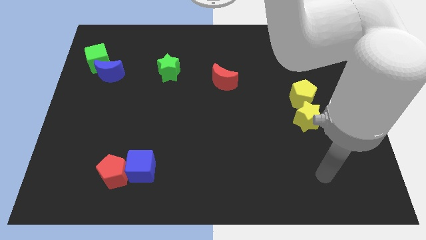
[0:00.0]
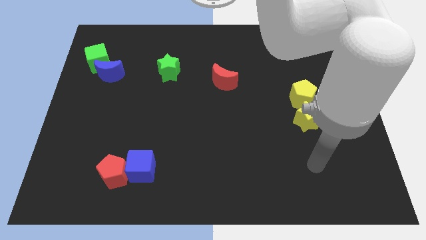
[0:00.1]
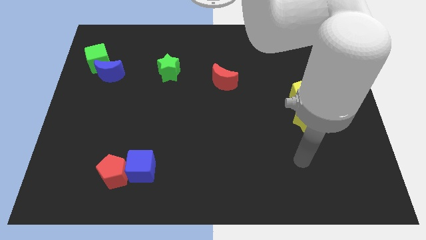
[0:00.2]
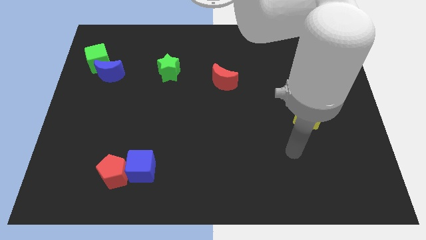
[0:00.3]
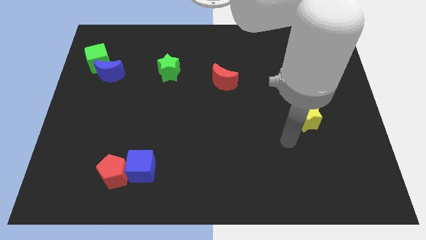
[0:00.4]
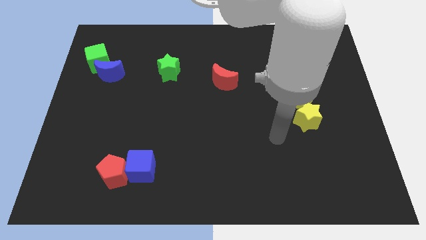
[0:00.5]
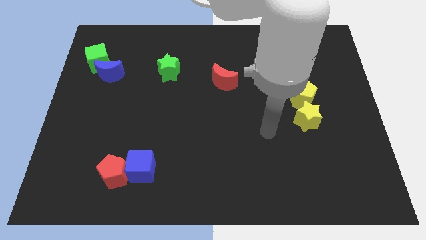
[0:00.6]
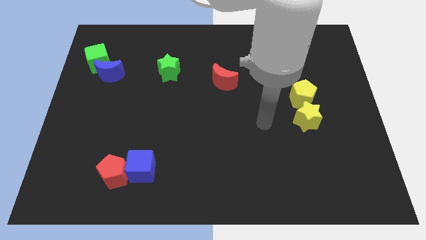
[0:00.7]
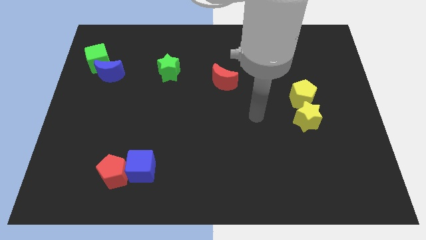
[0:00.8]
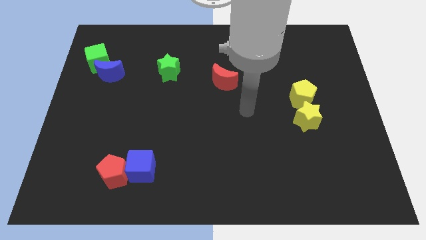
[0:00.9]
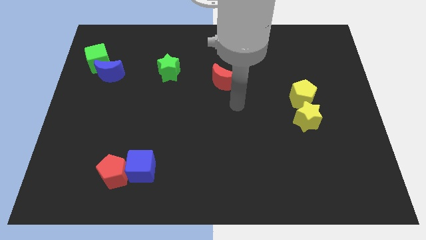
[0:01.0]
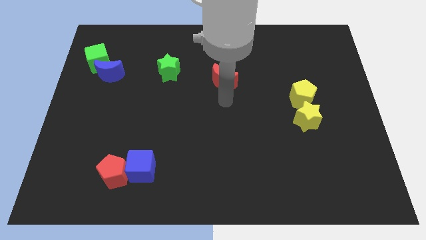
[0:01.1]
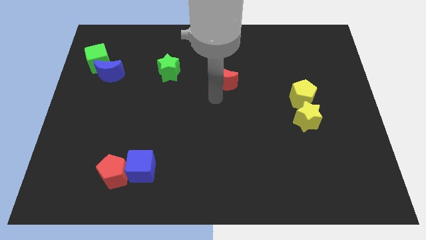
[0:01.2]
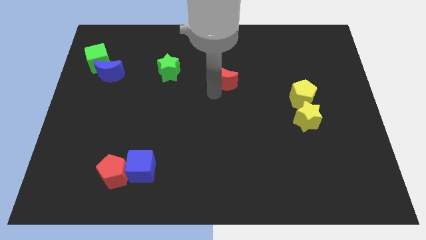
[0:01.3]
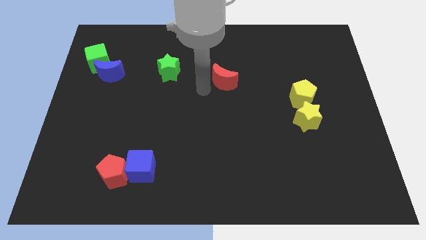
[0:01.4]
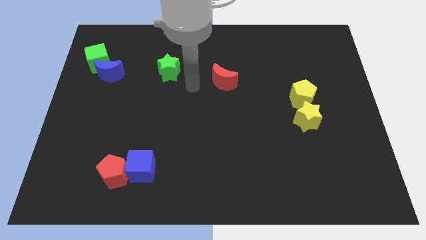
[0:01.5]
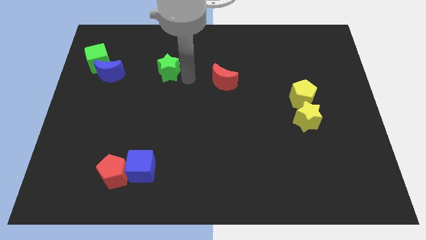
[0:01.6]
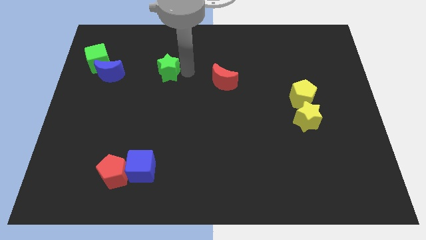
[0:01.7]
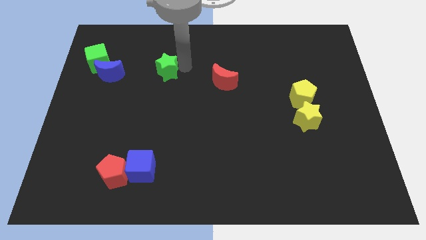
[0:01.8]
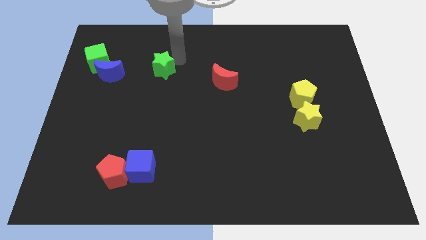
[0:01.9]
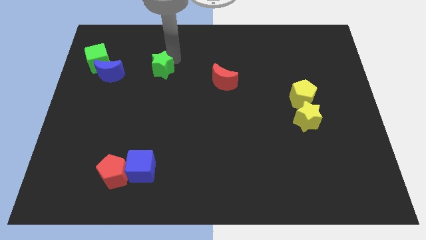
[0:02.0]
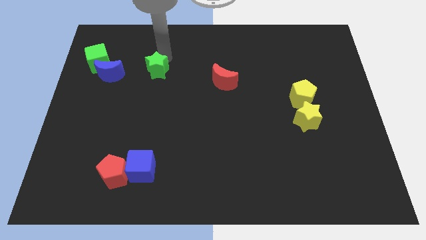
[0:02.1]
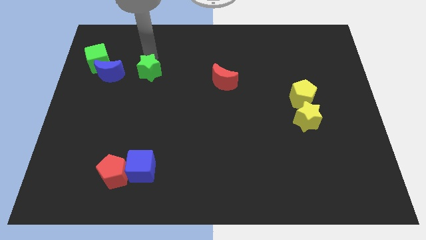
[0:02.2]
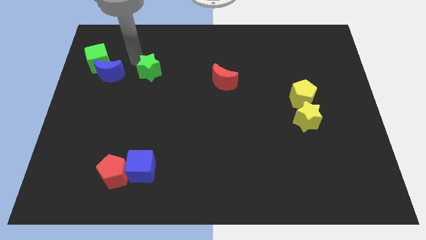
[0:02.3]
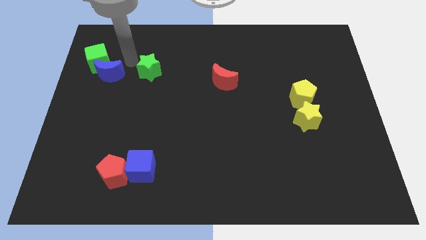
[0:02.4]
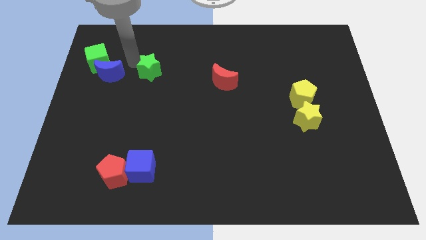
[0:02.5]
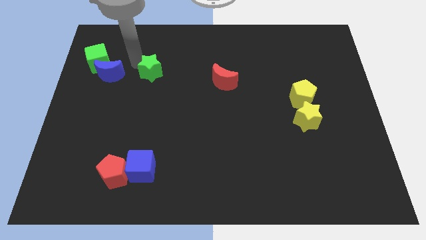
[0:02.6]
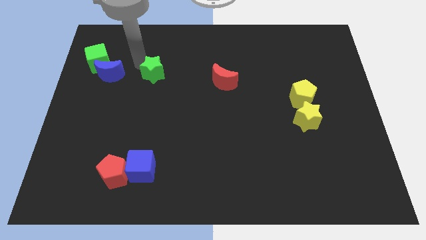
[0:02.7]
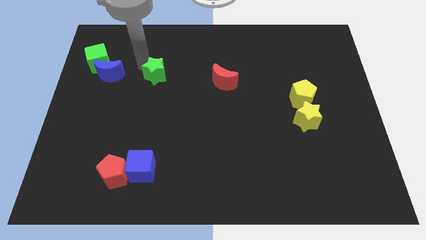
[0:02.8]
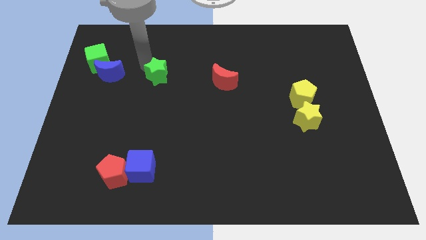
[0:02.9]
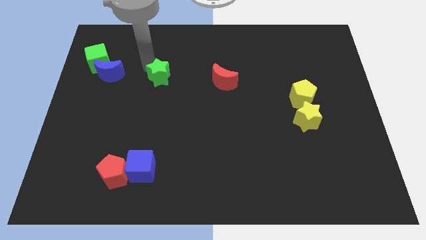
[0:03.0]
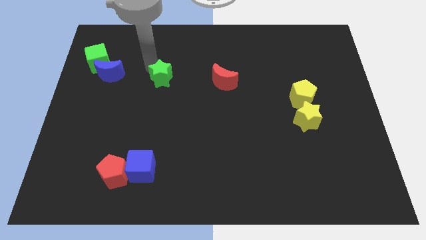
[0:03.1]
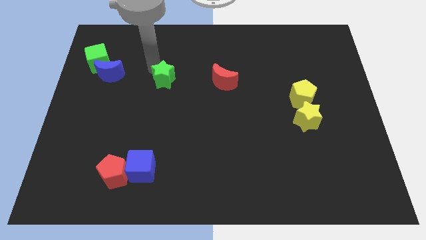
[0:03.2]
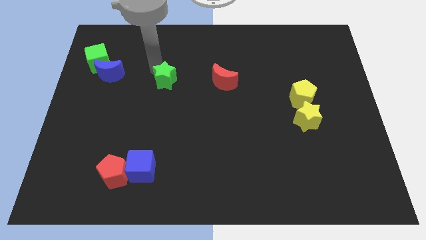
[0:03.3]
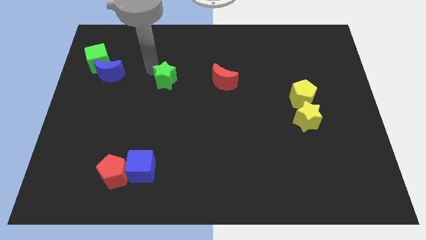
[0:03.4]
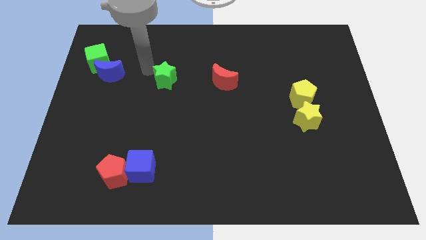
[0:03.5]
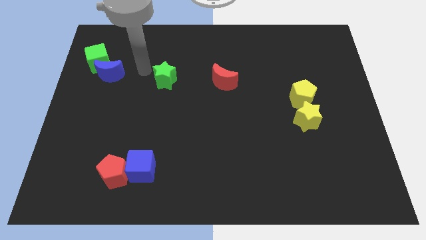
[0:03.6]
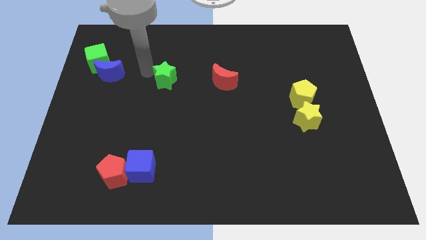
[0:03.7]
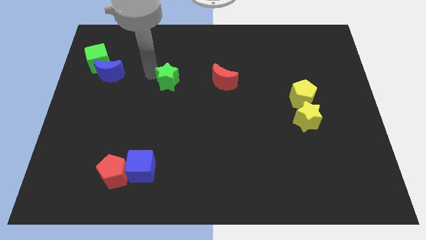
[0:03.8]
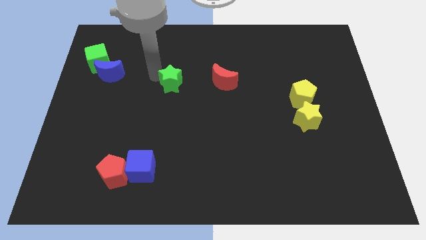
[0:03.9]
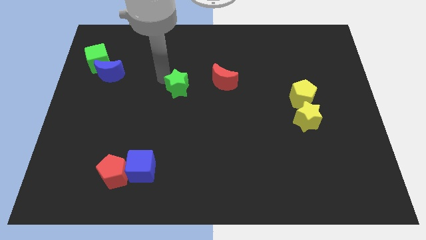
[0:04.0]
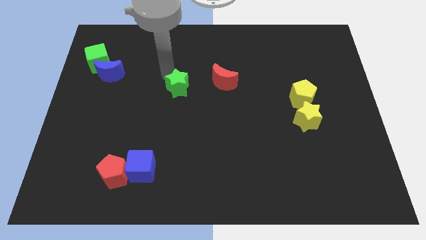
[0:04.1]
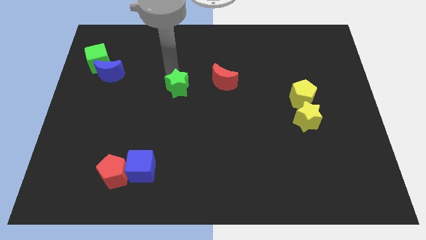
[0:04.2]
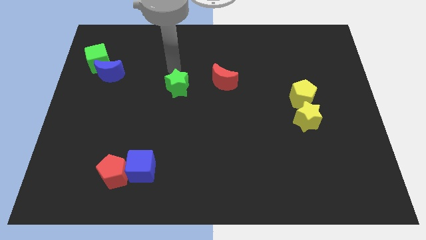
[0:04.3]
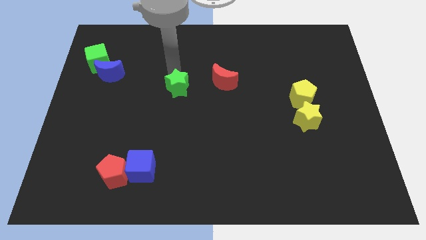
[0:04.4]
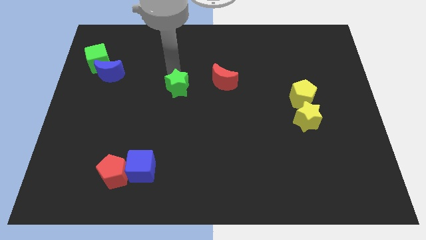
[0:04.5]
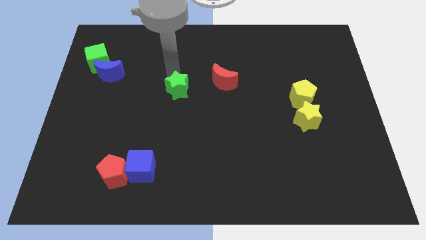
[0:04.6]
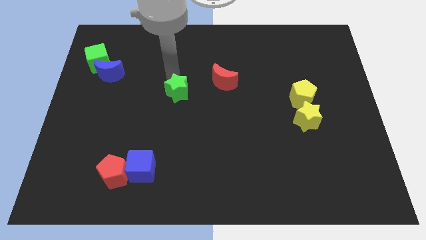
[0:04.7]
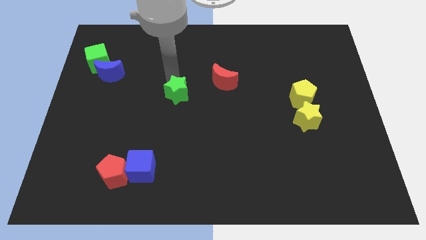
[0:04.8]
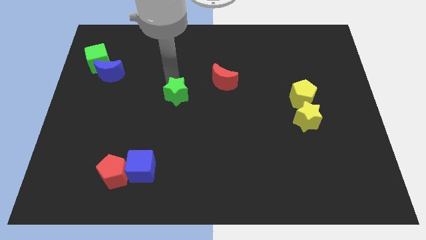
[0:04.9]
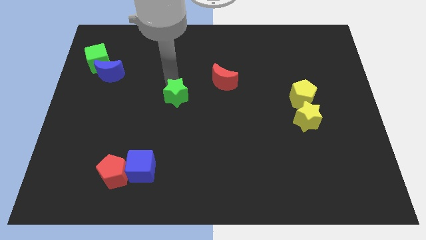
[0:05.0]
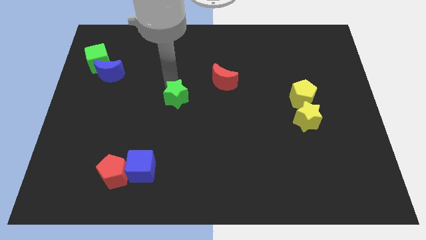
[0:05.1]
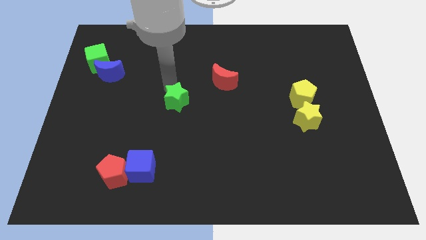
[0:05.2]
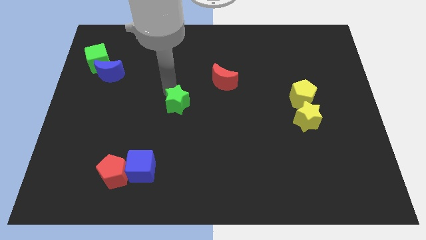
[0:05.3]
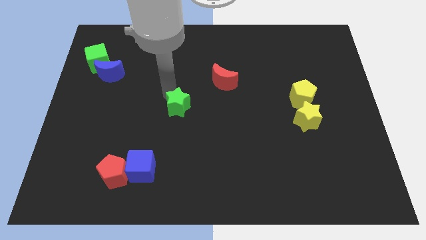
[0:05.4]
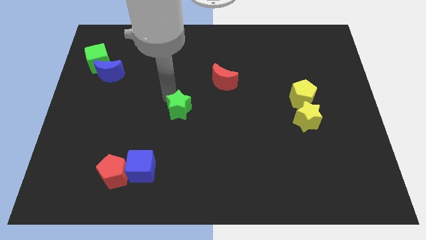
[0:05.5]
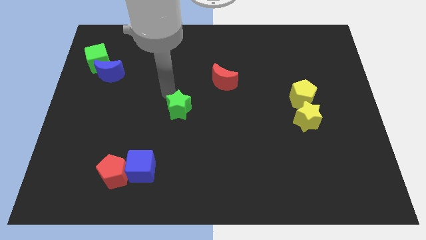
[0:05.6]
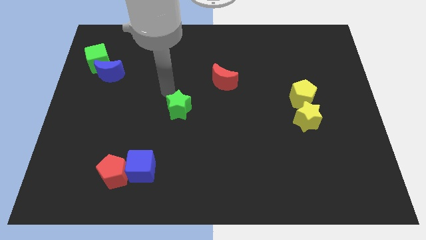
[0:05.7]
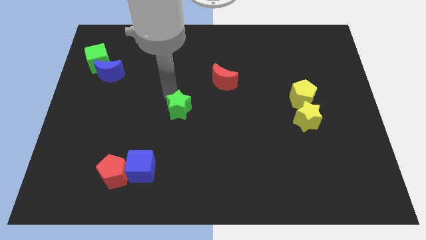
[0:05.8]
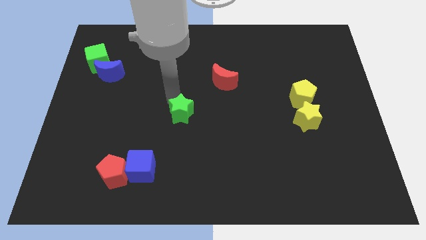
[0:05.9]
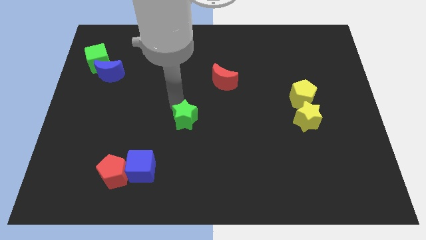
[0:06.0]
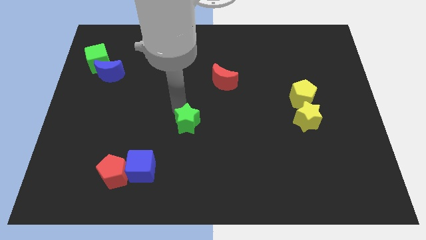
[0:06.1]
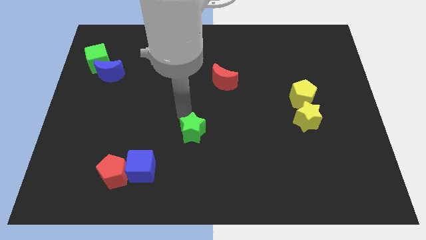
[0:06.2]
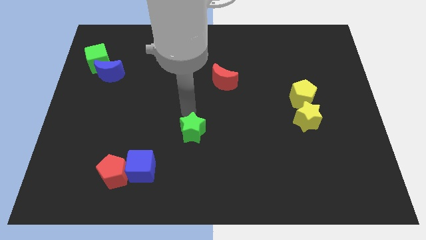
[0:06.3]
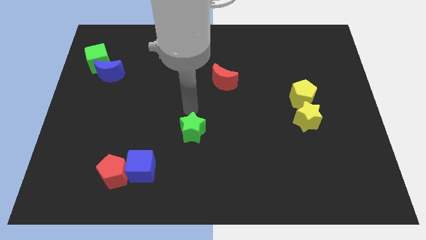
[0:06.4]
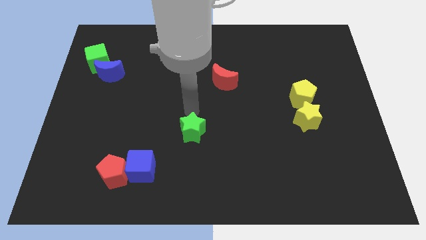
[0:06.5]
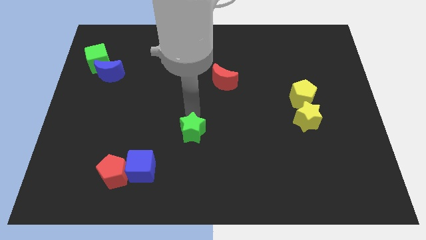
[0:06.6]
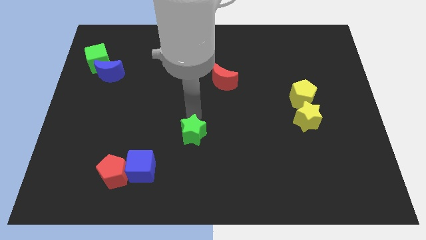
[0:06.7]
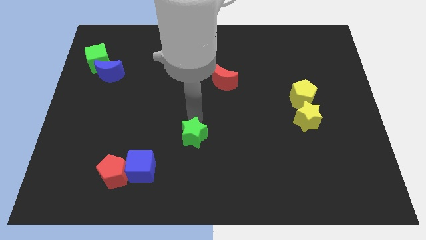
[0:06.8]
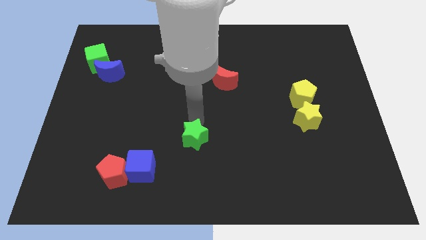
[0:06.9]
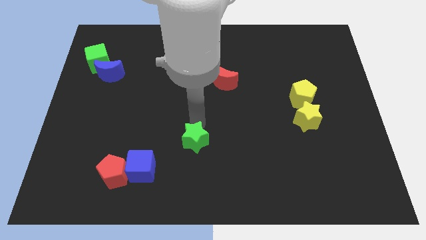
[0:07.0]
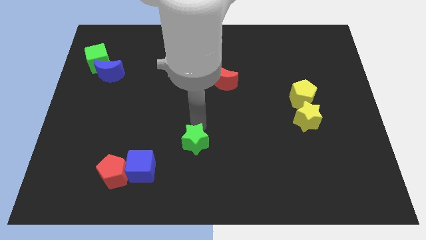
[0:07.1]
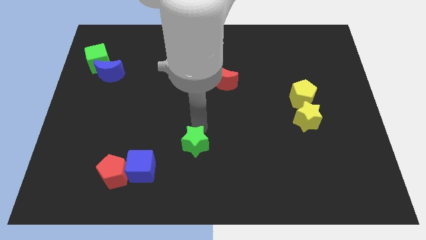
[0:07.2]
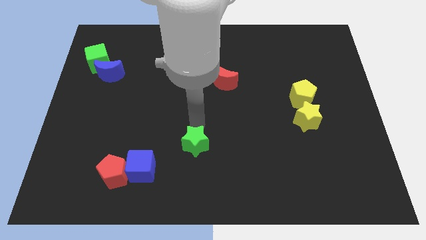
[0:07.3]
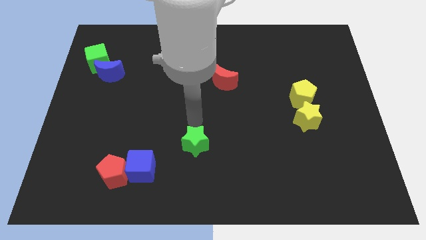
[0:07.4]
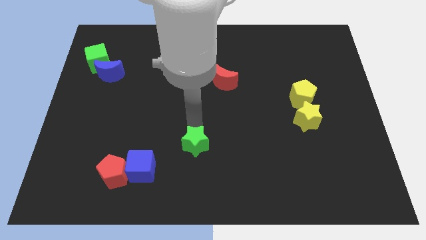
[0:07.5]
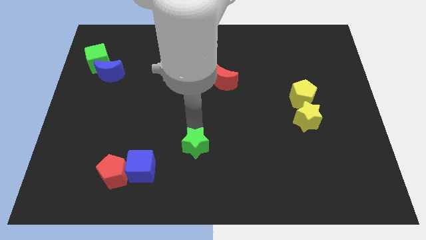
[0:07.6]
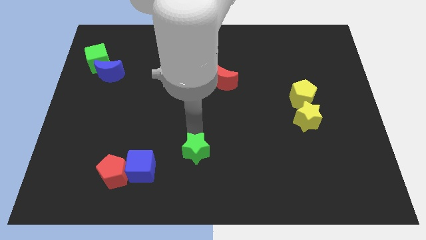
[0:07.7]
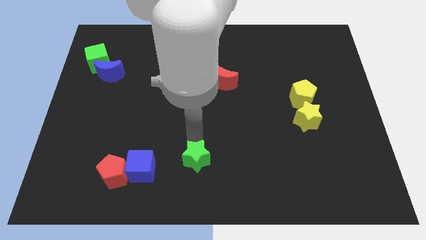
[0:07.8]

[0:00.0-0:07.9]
move the green star to the bottom

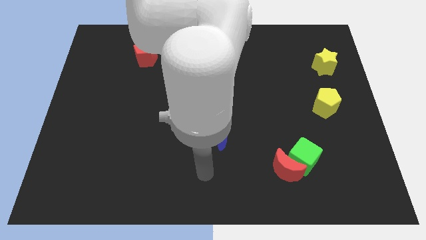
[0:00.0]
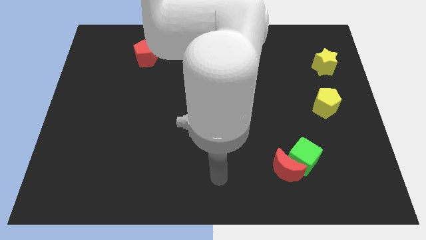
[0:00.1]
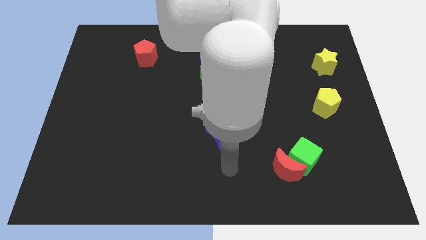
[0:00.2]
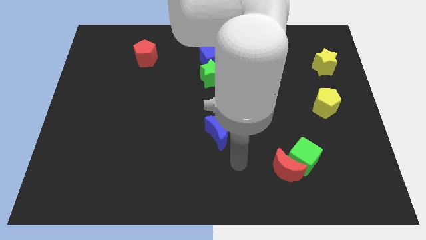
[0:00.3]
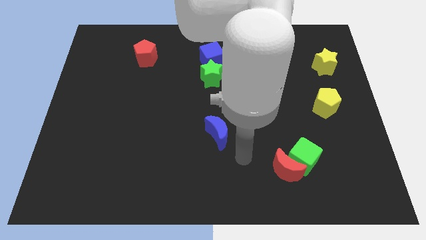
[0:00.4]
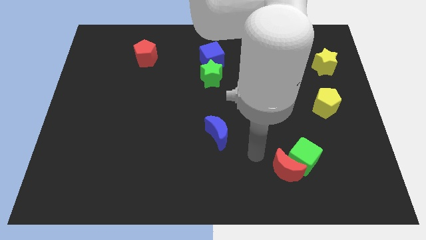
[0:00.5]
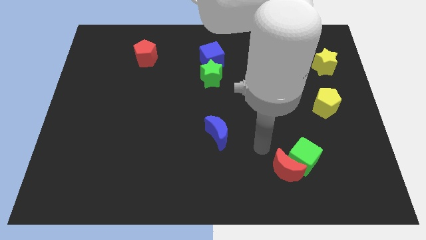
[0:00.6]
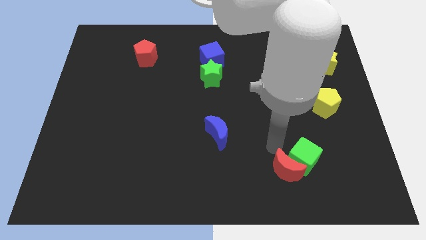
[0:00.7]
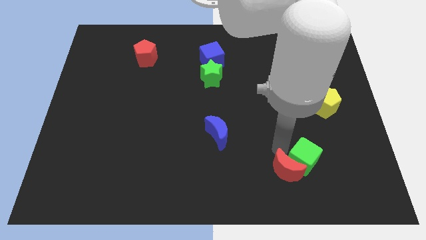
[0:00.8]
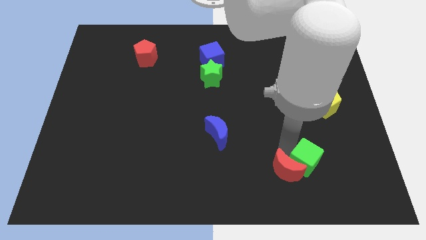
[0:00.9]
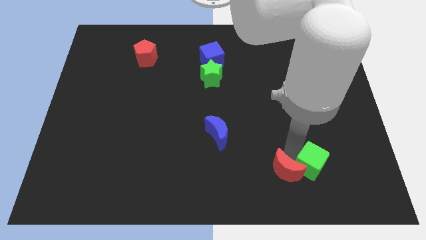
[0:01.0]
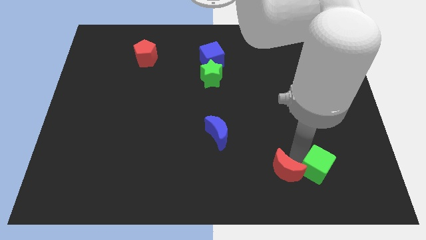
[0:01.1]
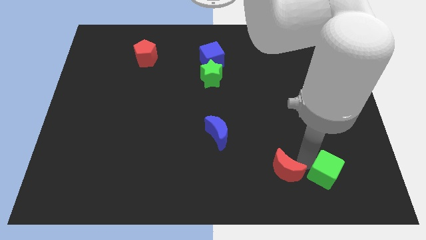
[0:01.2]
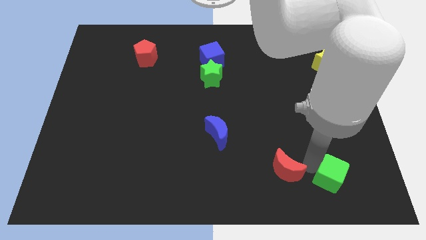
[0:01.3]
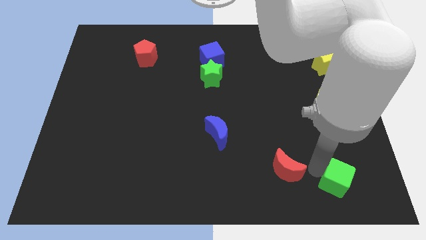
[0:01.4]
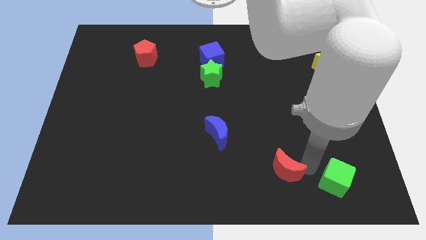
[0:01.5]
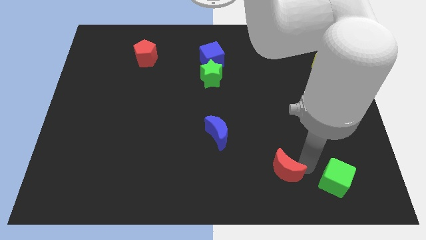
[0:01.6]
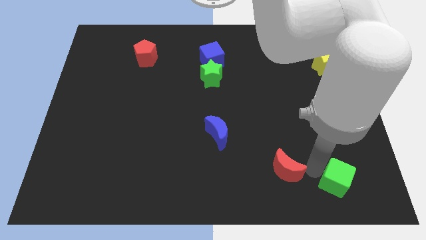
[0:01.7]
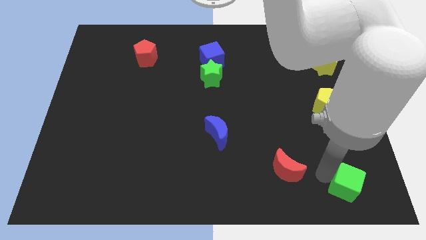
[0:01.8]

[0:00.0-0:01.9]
slide the green cube to the bottom right
